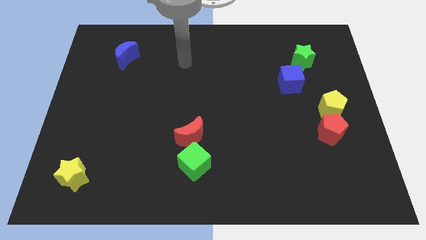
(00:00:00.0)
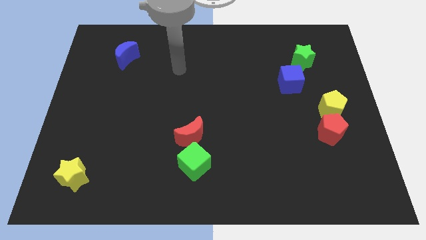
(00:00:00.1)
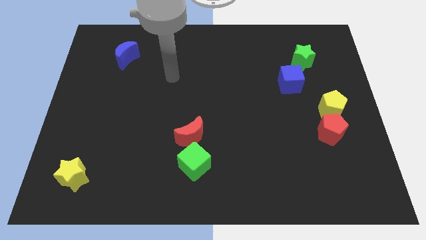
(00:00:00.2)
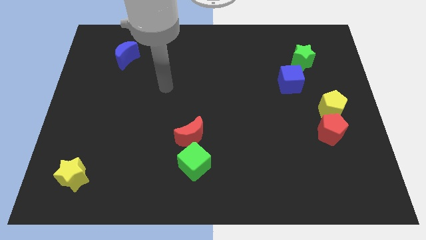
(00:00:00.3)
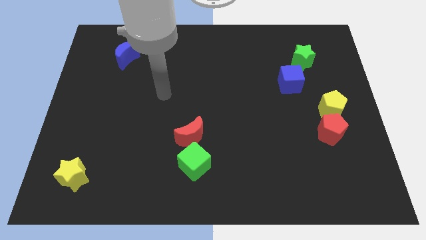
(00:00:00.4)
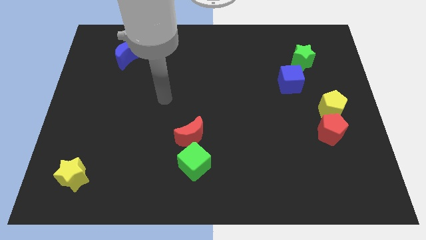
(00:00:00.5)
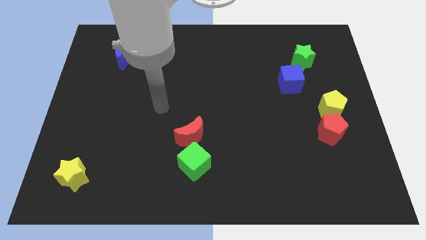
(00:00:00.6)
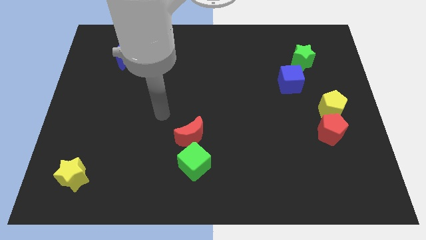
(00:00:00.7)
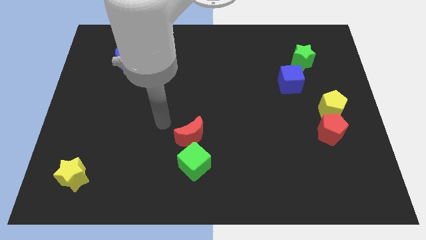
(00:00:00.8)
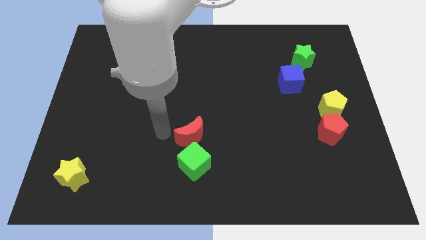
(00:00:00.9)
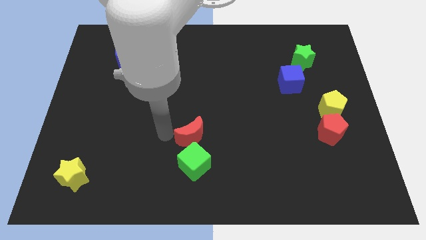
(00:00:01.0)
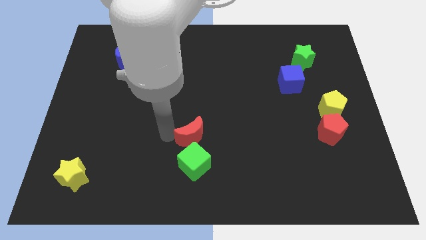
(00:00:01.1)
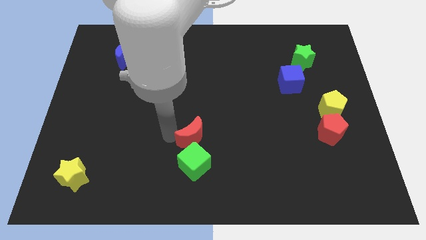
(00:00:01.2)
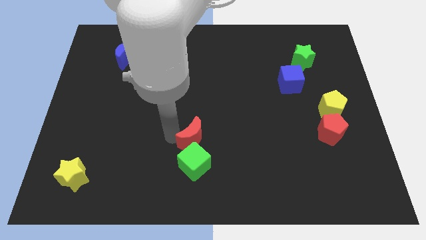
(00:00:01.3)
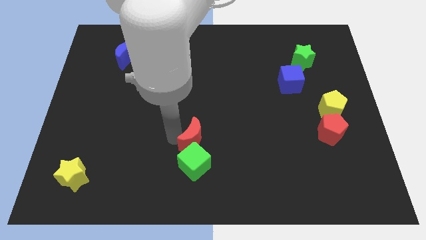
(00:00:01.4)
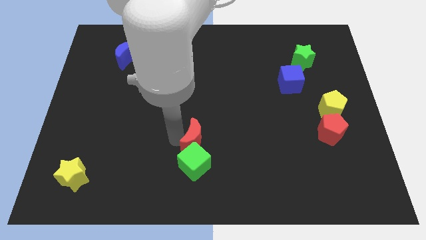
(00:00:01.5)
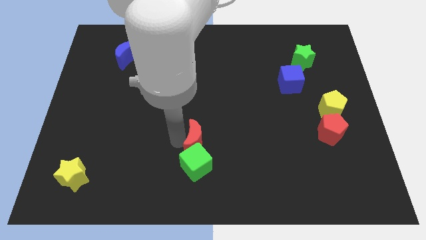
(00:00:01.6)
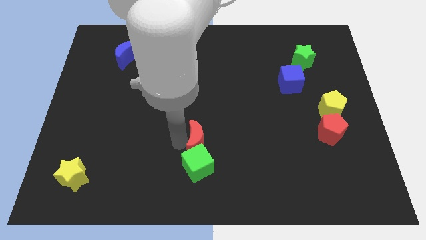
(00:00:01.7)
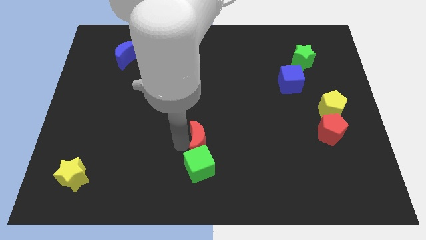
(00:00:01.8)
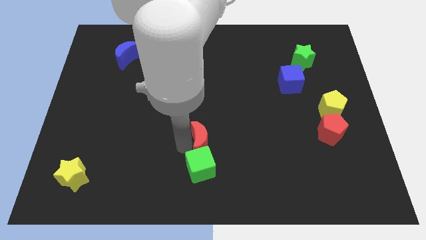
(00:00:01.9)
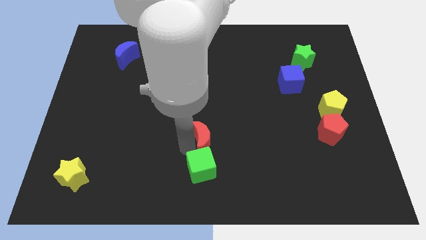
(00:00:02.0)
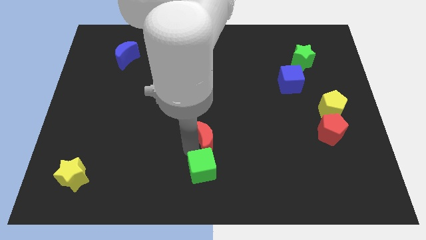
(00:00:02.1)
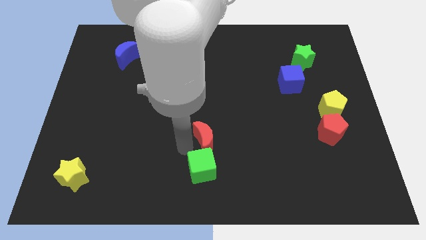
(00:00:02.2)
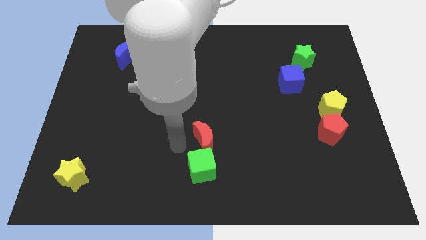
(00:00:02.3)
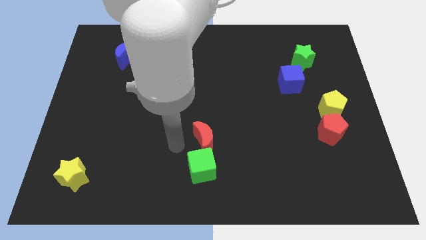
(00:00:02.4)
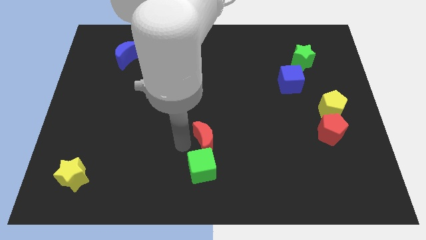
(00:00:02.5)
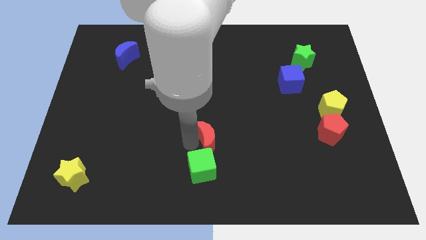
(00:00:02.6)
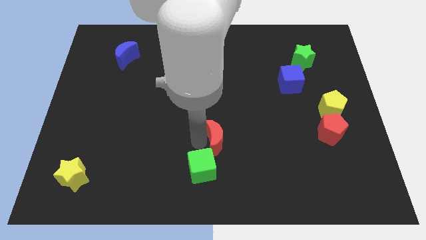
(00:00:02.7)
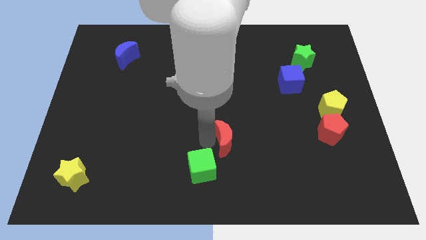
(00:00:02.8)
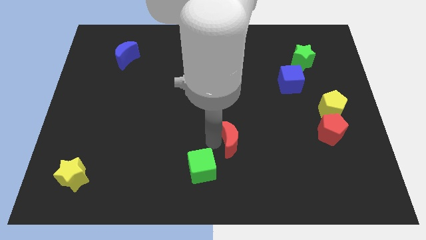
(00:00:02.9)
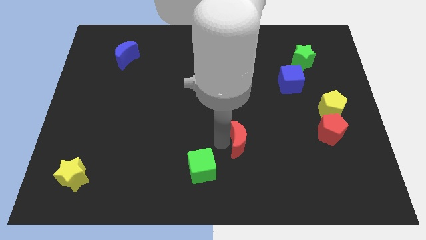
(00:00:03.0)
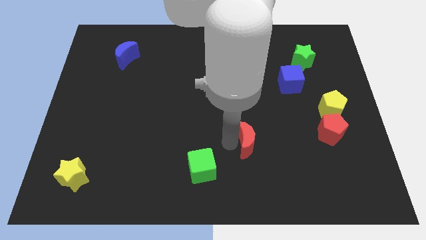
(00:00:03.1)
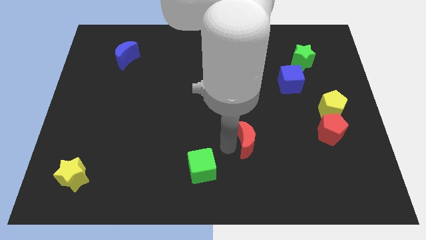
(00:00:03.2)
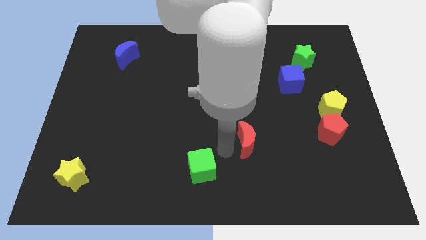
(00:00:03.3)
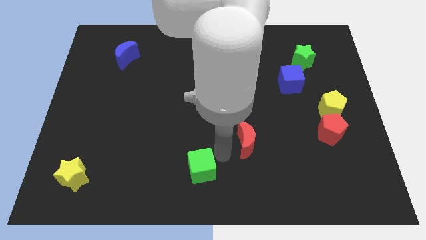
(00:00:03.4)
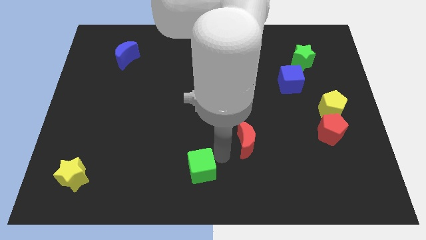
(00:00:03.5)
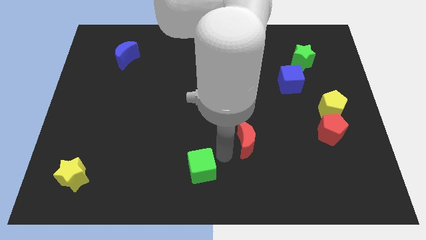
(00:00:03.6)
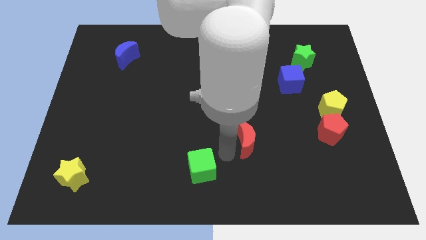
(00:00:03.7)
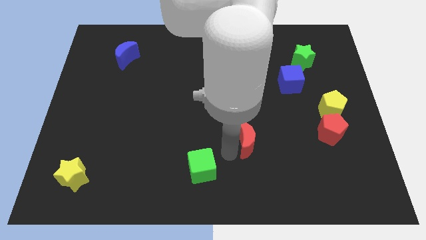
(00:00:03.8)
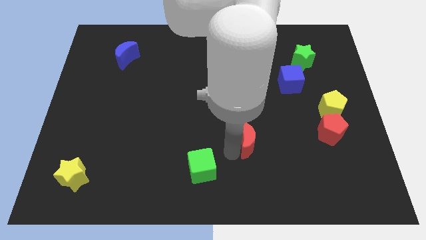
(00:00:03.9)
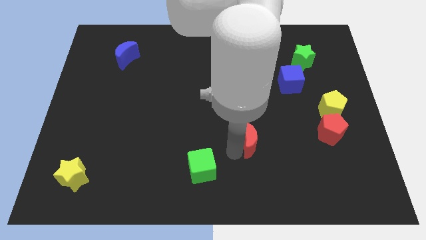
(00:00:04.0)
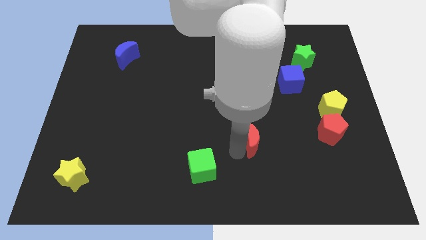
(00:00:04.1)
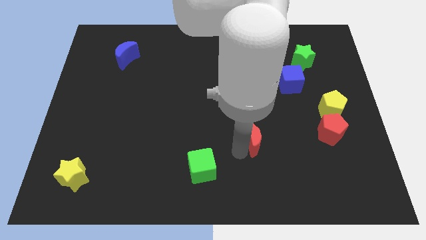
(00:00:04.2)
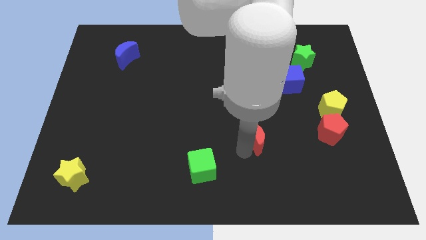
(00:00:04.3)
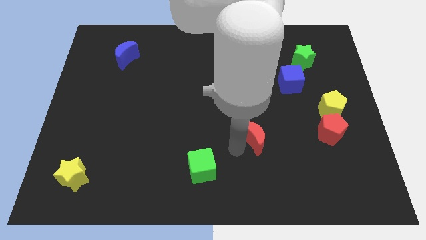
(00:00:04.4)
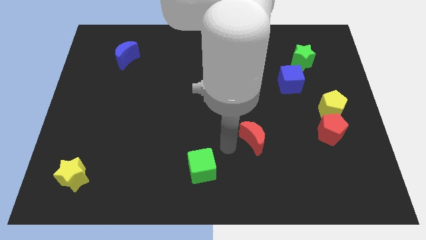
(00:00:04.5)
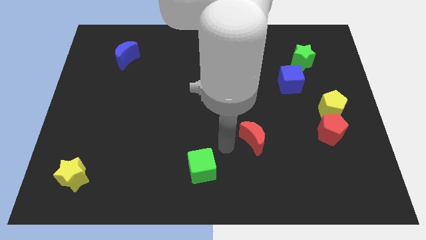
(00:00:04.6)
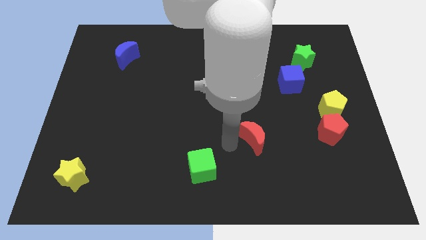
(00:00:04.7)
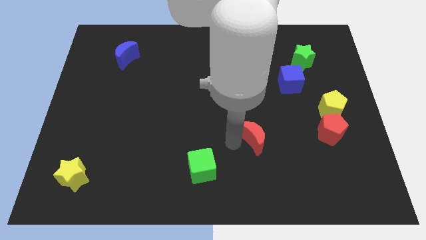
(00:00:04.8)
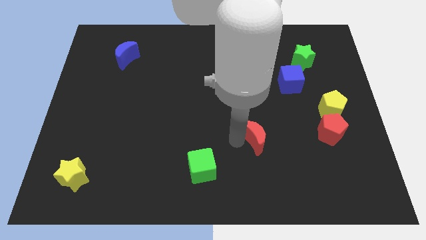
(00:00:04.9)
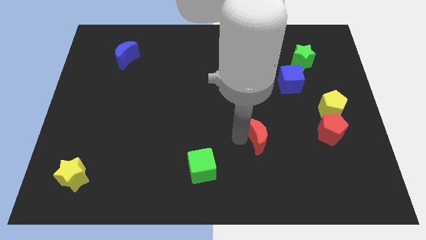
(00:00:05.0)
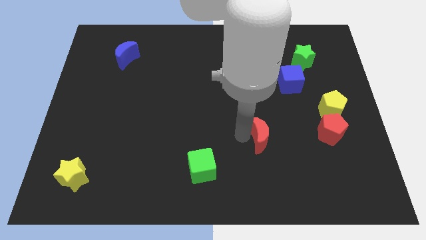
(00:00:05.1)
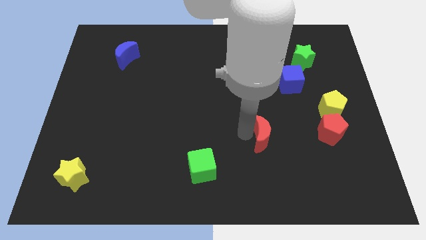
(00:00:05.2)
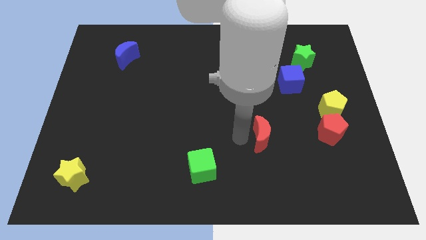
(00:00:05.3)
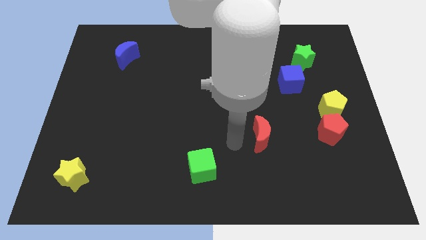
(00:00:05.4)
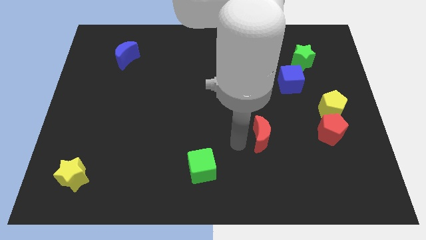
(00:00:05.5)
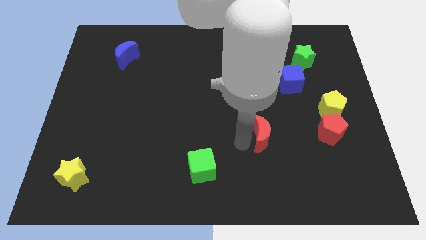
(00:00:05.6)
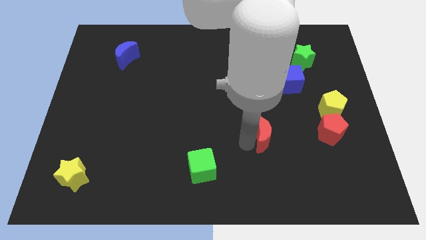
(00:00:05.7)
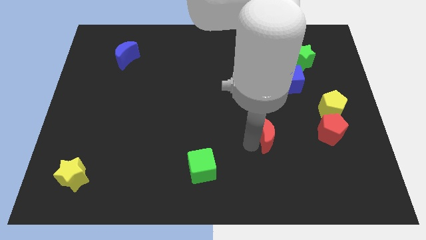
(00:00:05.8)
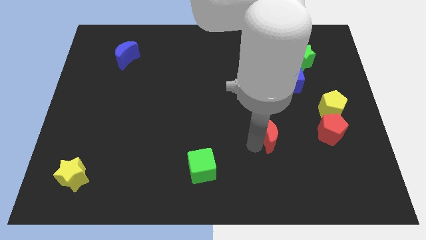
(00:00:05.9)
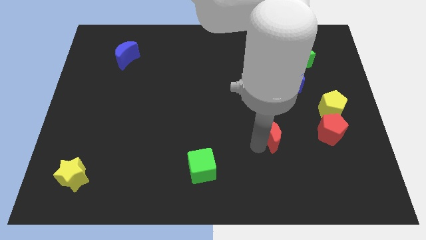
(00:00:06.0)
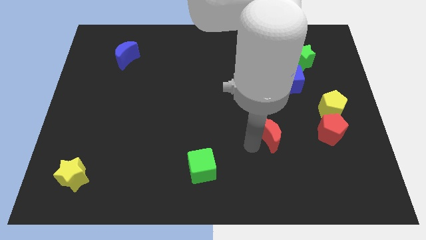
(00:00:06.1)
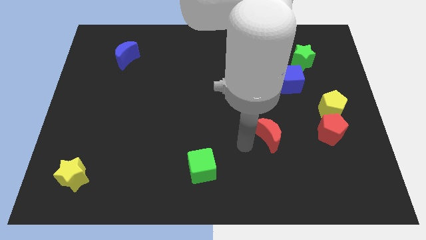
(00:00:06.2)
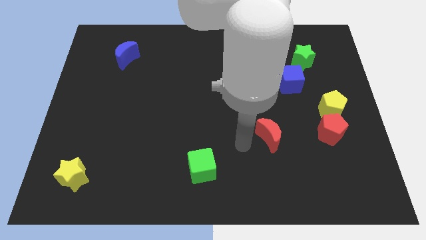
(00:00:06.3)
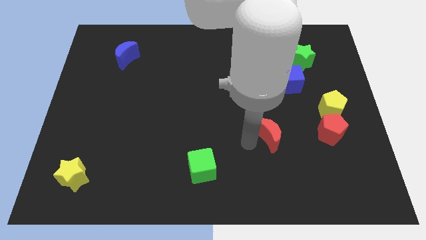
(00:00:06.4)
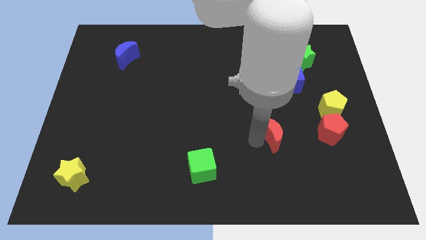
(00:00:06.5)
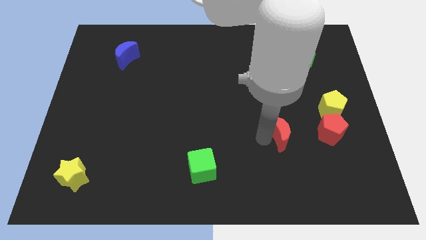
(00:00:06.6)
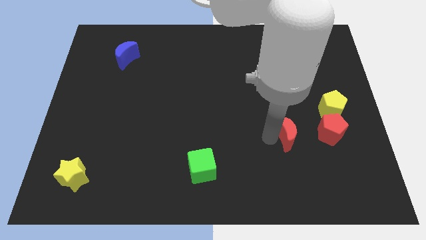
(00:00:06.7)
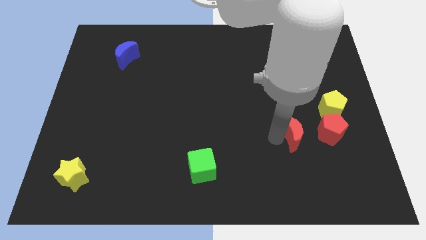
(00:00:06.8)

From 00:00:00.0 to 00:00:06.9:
move the red moon diagonally down and to the left of the yellow pentagon
